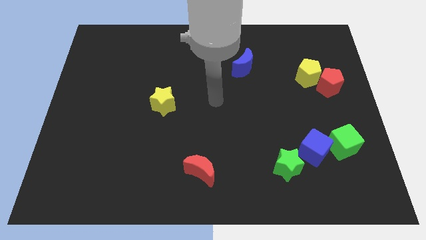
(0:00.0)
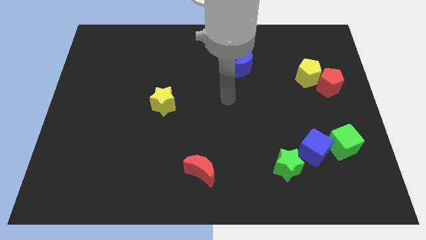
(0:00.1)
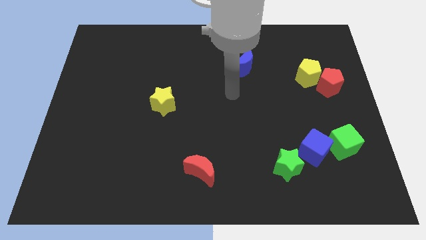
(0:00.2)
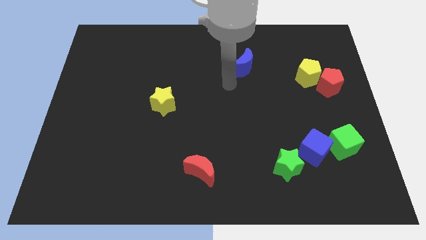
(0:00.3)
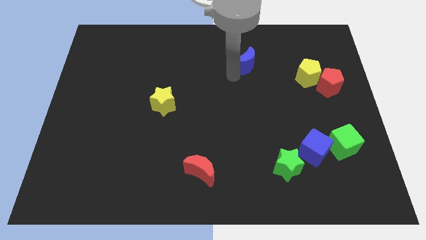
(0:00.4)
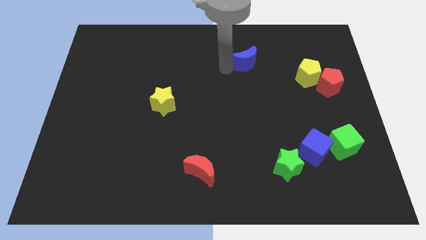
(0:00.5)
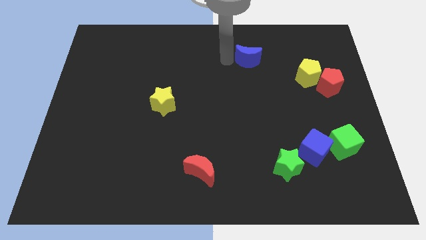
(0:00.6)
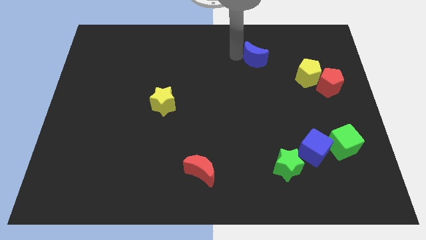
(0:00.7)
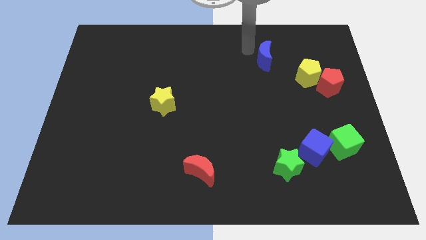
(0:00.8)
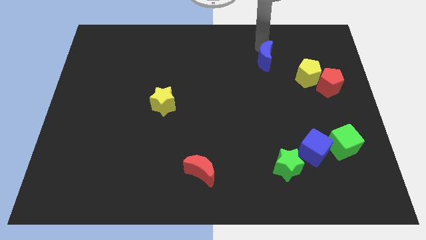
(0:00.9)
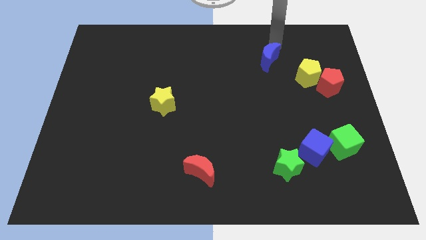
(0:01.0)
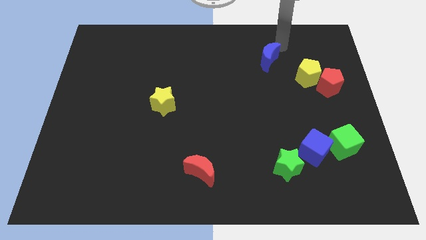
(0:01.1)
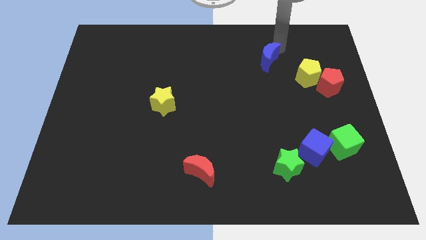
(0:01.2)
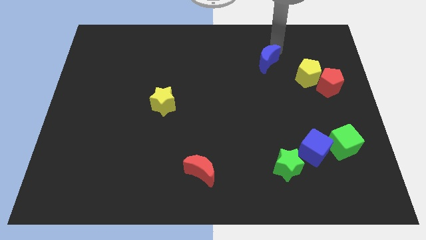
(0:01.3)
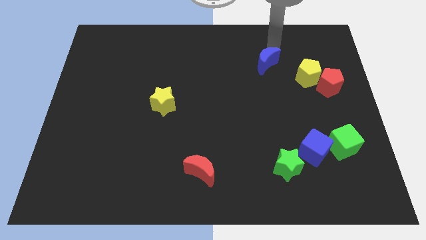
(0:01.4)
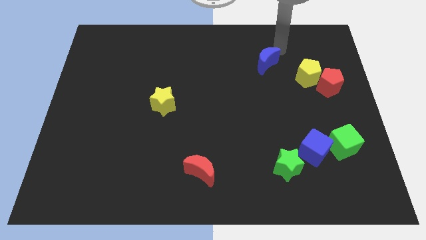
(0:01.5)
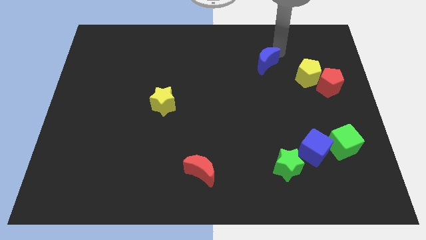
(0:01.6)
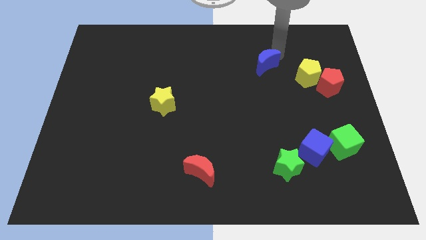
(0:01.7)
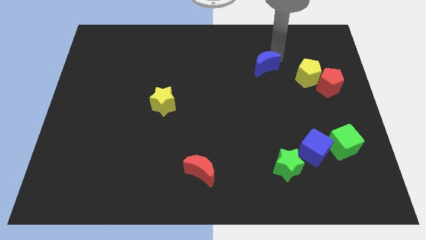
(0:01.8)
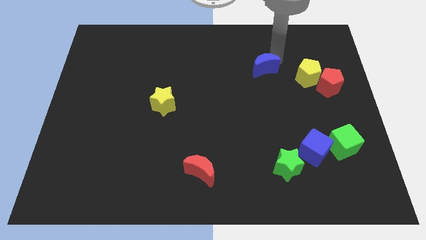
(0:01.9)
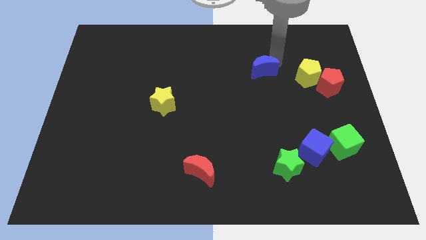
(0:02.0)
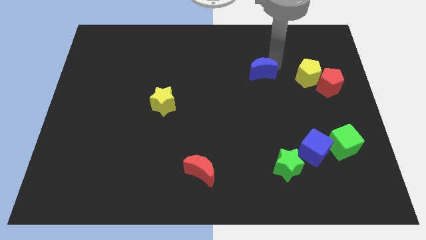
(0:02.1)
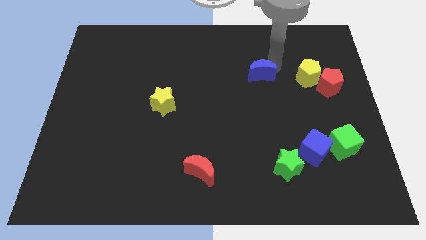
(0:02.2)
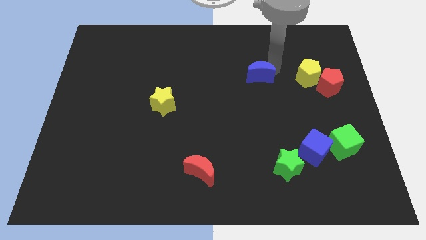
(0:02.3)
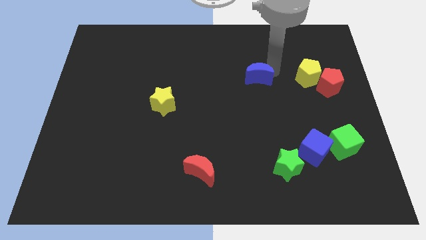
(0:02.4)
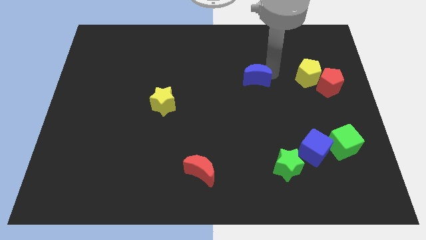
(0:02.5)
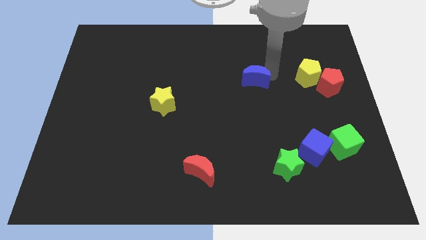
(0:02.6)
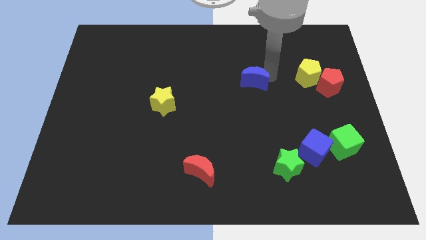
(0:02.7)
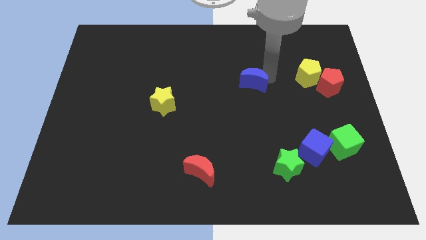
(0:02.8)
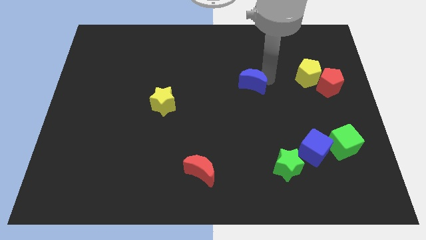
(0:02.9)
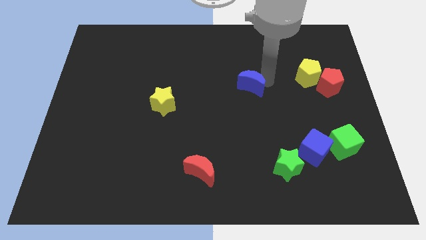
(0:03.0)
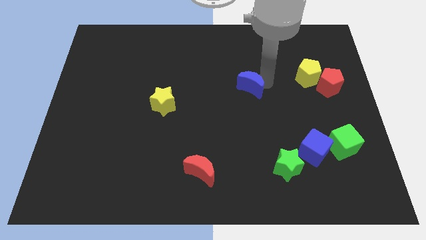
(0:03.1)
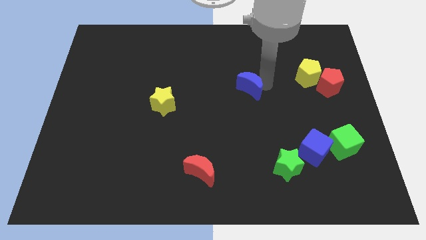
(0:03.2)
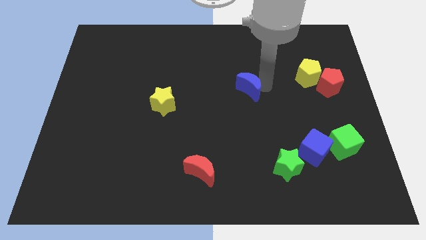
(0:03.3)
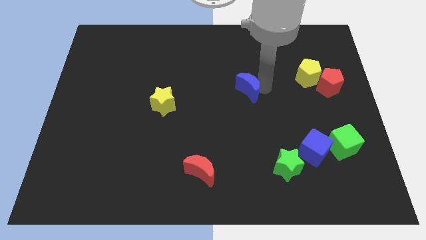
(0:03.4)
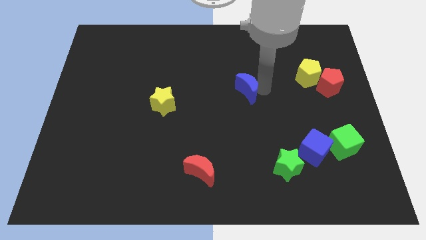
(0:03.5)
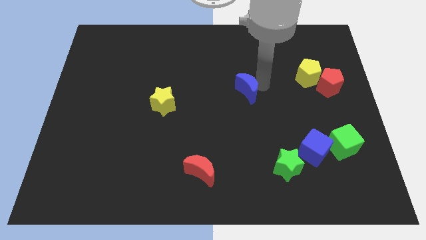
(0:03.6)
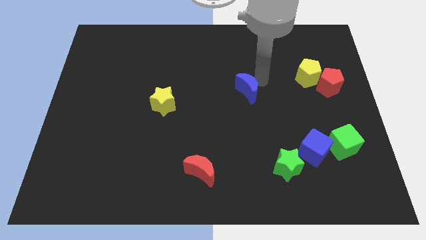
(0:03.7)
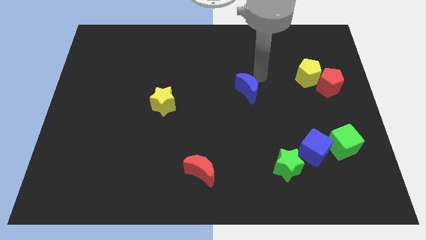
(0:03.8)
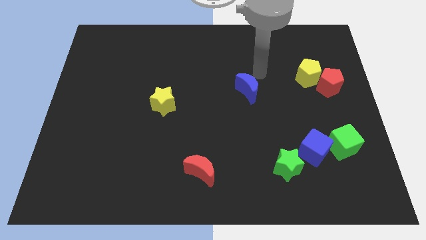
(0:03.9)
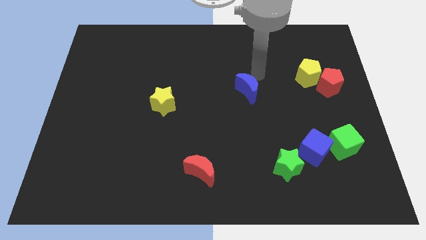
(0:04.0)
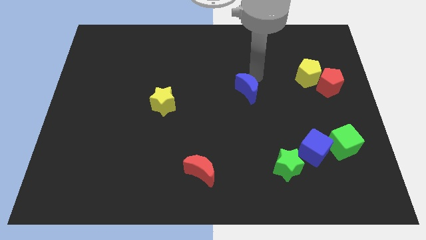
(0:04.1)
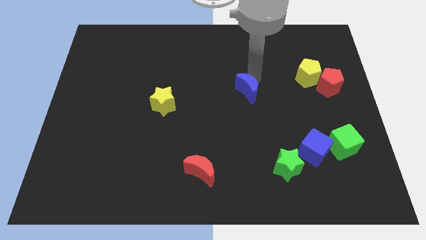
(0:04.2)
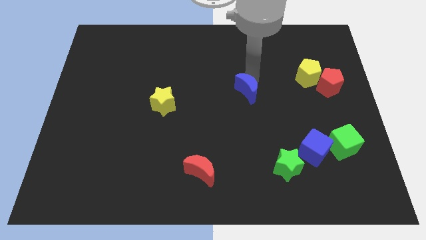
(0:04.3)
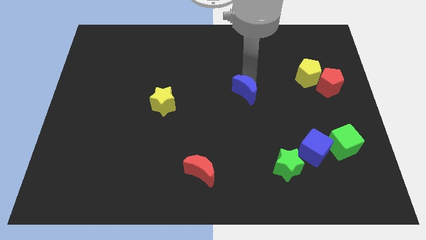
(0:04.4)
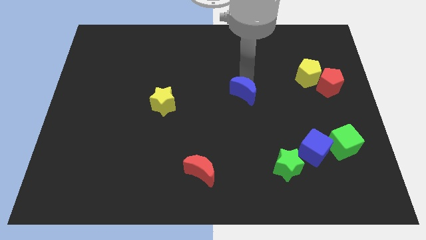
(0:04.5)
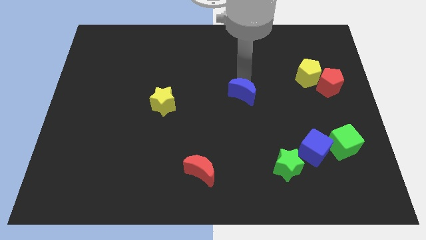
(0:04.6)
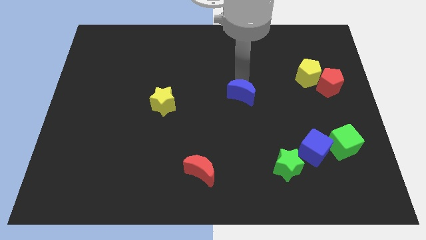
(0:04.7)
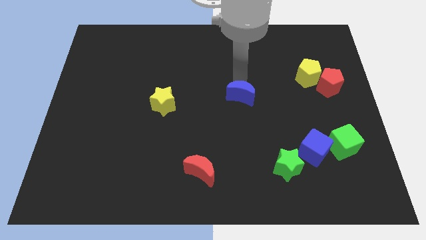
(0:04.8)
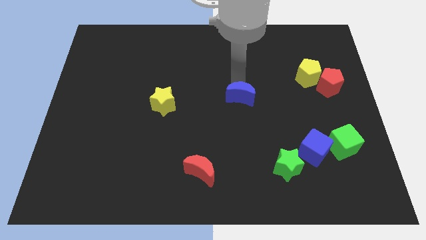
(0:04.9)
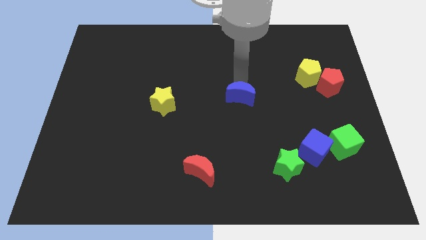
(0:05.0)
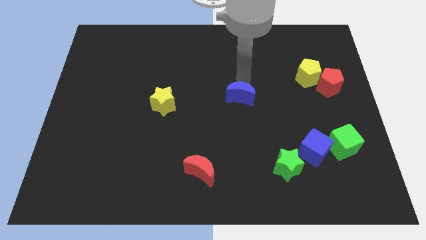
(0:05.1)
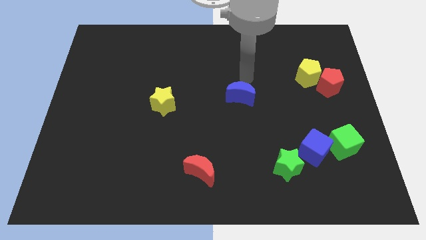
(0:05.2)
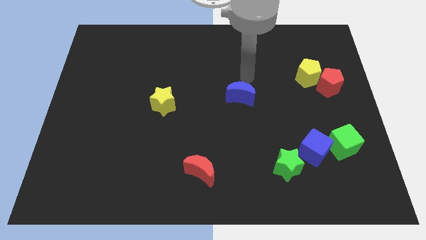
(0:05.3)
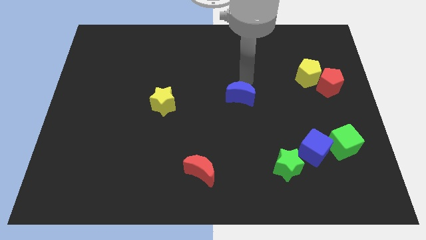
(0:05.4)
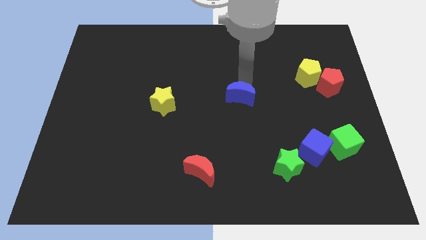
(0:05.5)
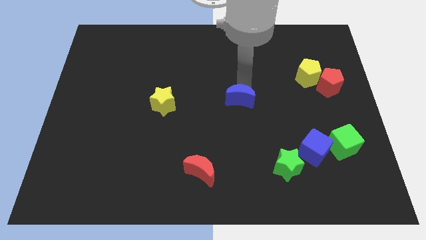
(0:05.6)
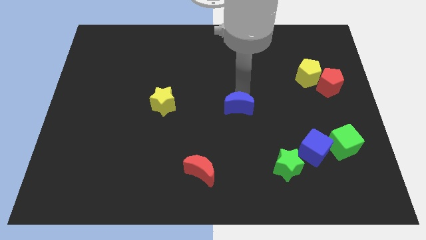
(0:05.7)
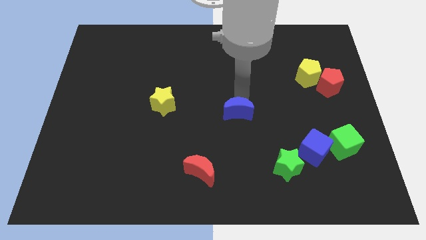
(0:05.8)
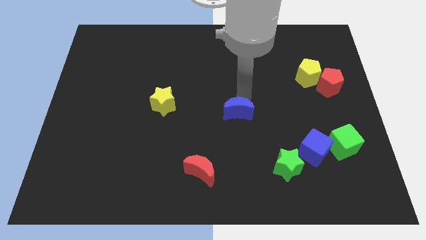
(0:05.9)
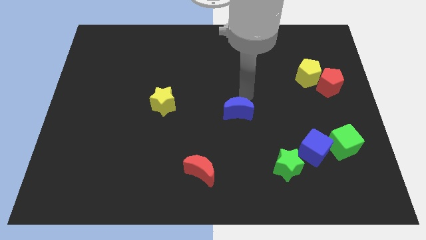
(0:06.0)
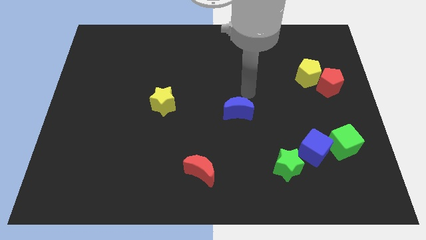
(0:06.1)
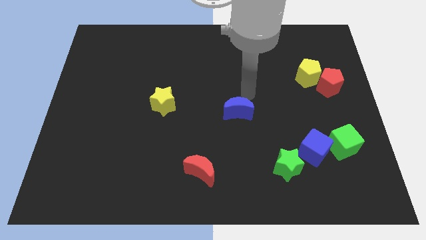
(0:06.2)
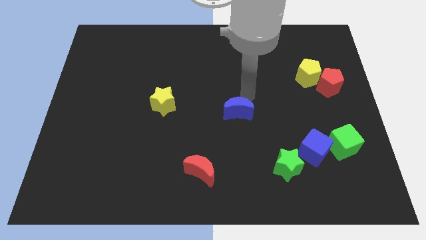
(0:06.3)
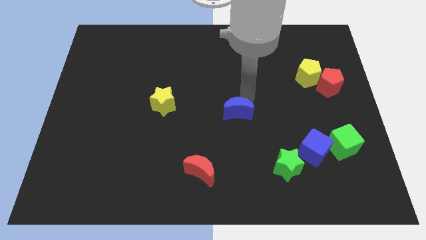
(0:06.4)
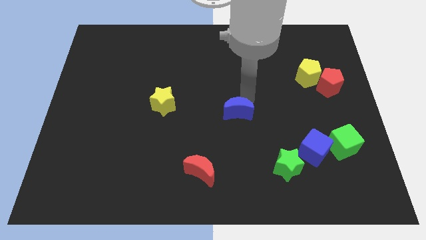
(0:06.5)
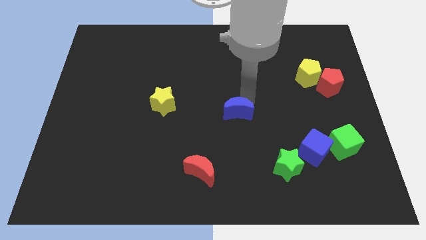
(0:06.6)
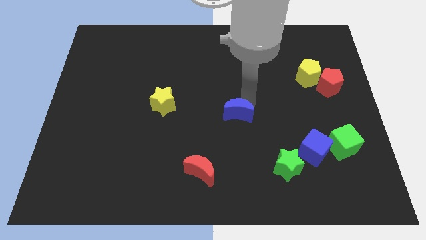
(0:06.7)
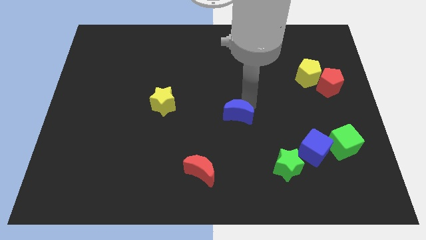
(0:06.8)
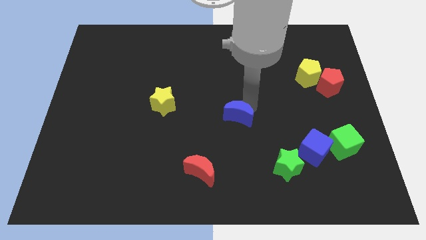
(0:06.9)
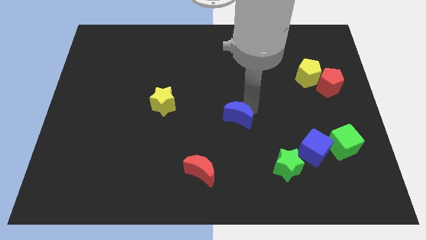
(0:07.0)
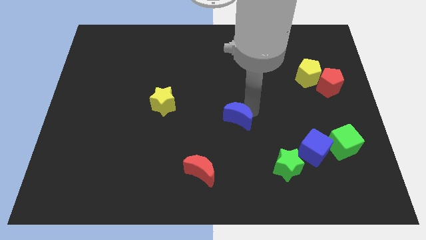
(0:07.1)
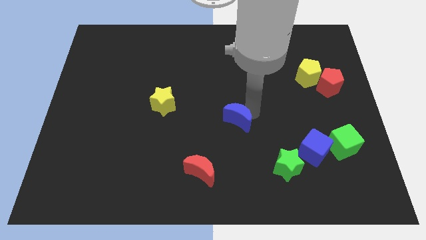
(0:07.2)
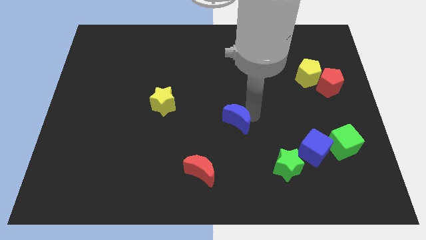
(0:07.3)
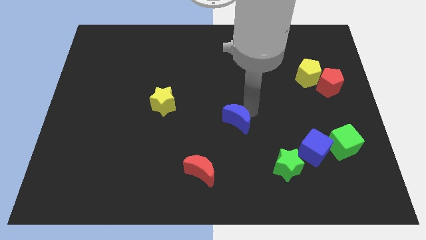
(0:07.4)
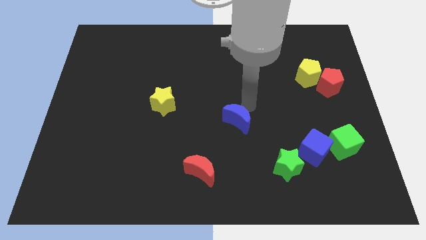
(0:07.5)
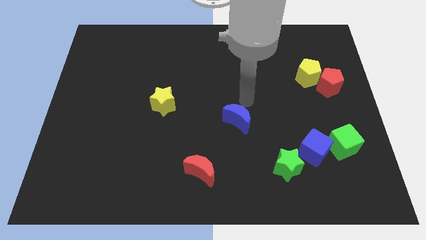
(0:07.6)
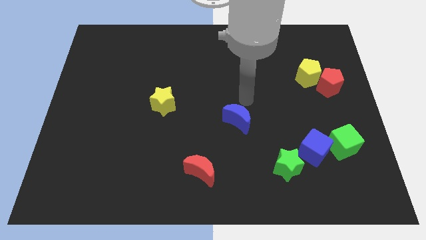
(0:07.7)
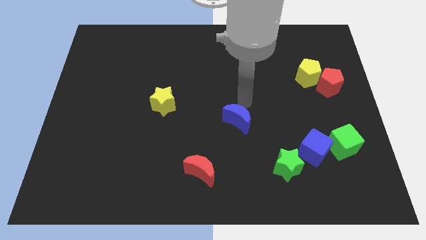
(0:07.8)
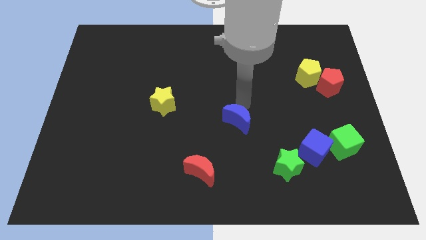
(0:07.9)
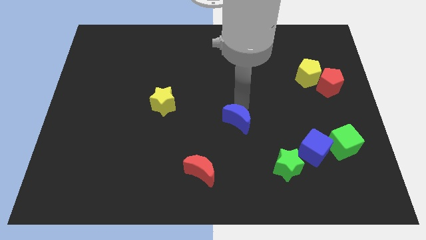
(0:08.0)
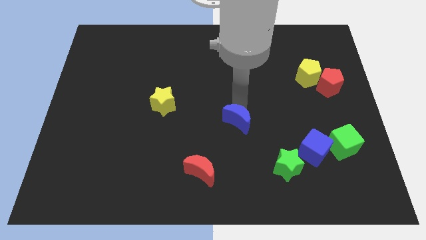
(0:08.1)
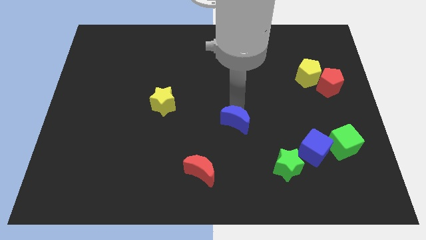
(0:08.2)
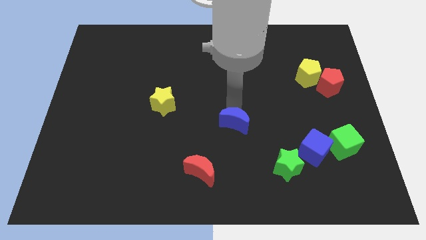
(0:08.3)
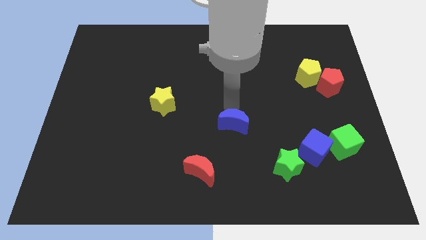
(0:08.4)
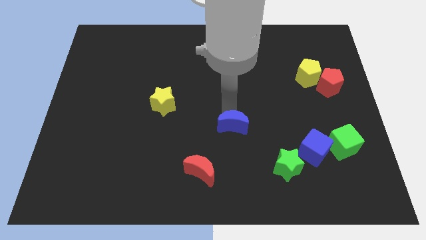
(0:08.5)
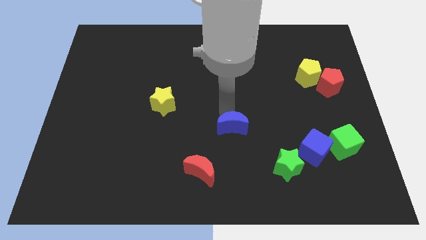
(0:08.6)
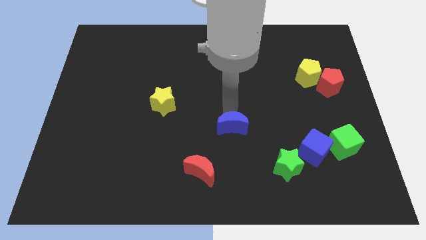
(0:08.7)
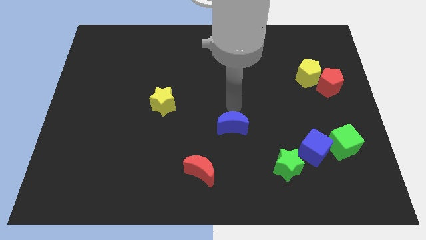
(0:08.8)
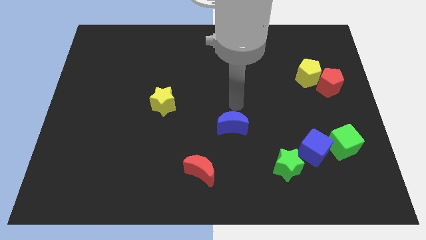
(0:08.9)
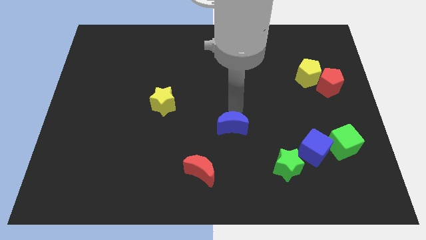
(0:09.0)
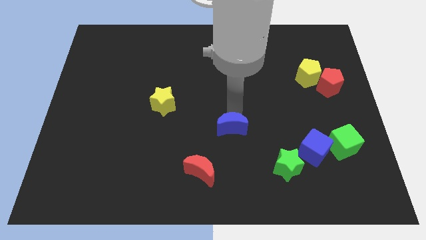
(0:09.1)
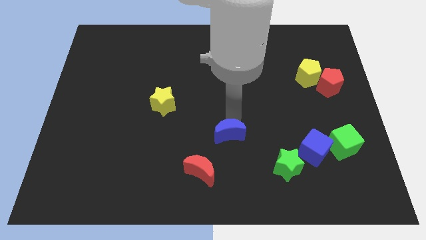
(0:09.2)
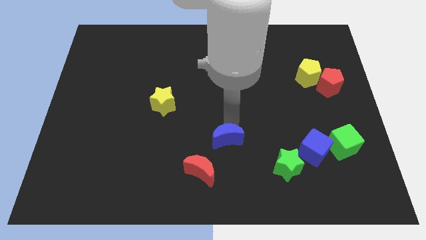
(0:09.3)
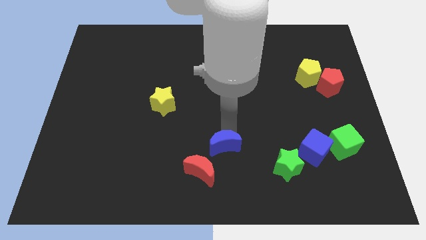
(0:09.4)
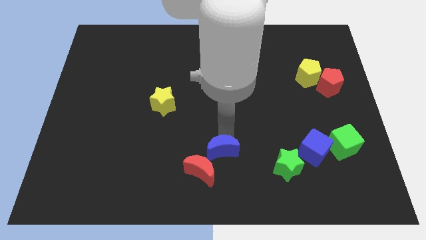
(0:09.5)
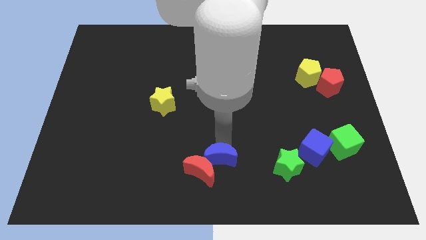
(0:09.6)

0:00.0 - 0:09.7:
move the blue moon to the bottom side
